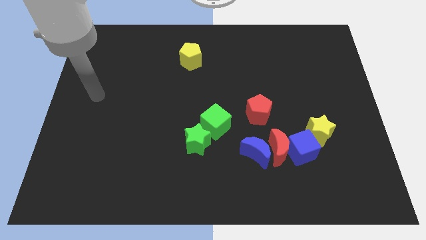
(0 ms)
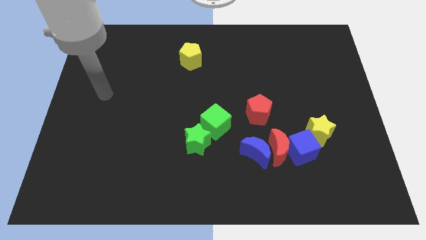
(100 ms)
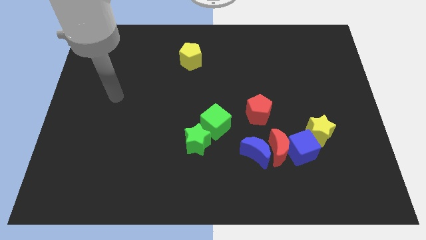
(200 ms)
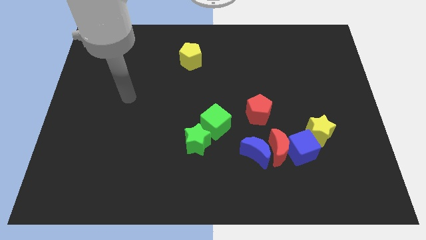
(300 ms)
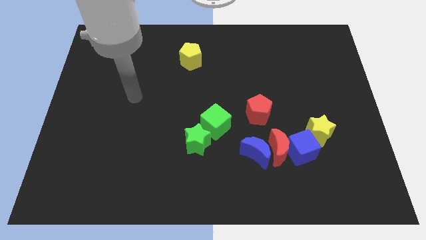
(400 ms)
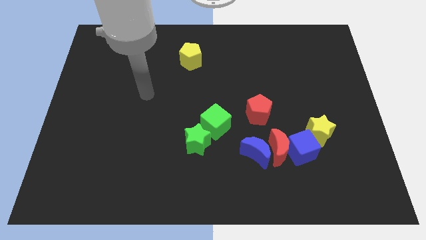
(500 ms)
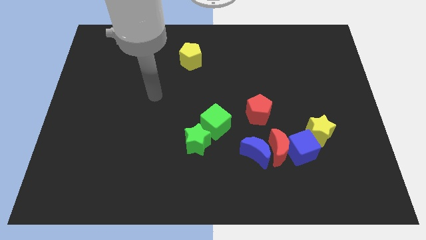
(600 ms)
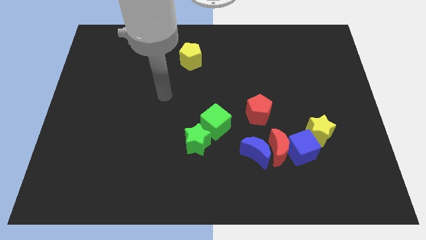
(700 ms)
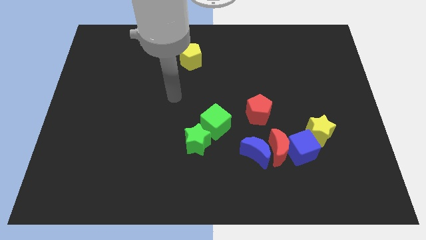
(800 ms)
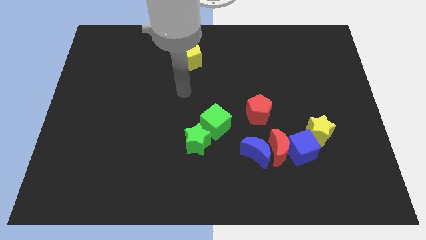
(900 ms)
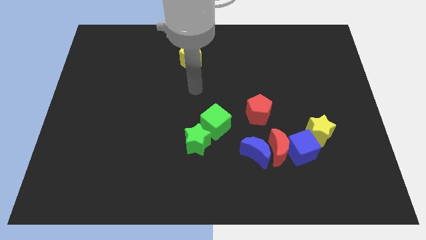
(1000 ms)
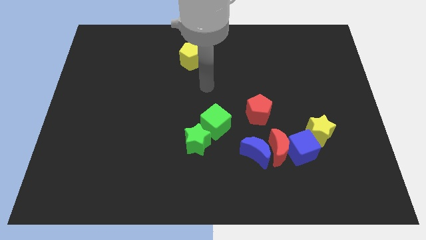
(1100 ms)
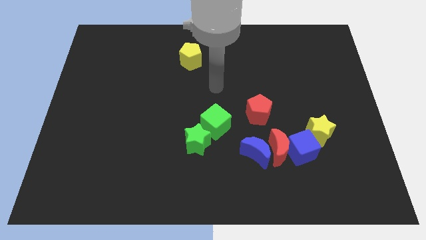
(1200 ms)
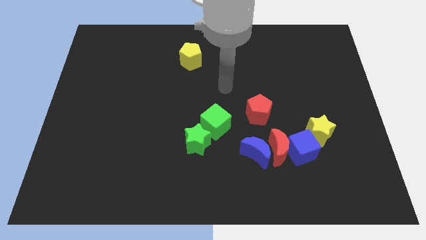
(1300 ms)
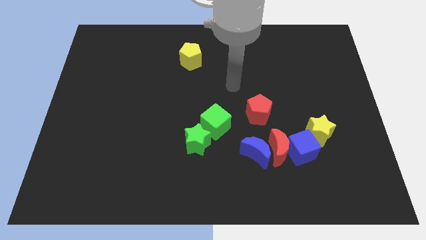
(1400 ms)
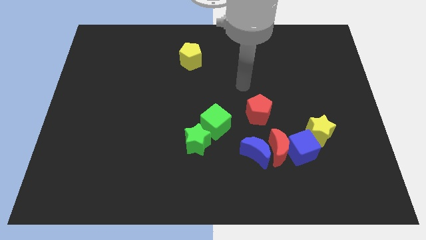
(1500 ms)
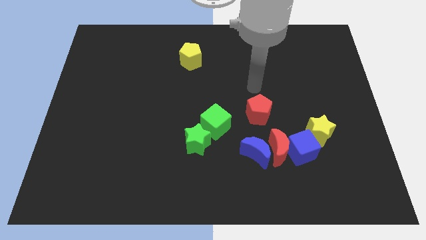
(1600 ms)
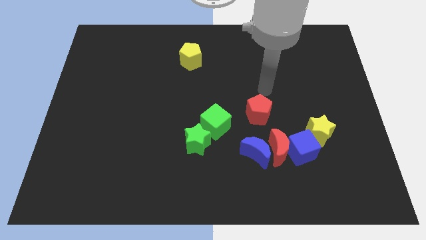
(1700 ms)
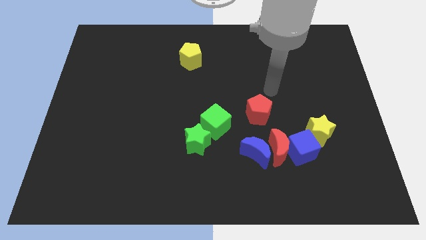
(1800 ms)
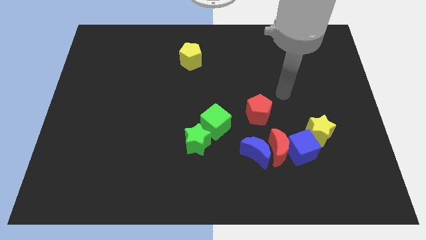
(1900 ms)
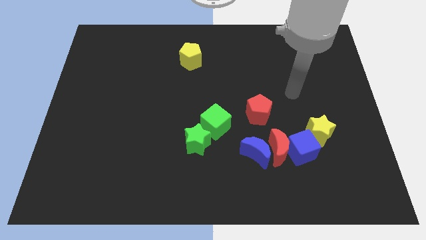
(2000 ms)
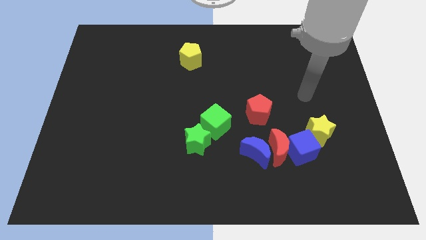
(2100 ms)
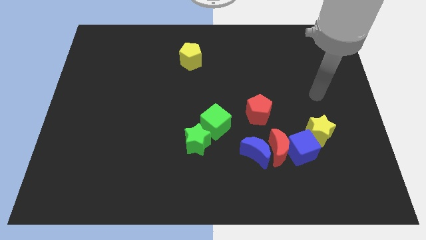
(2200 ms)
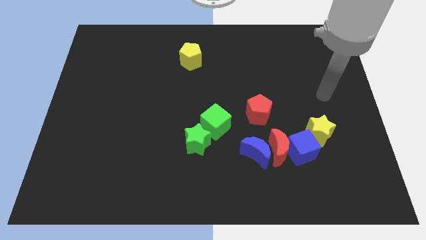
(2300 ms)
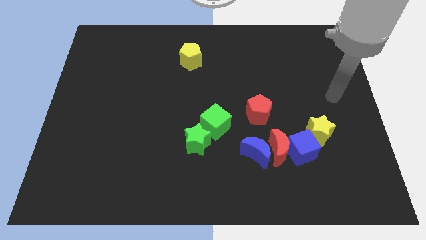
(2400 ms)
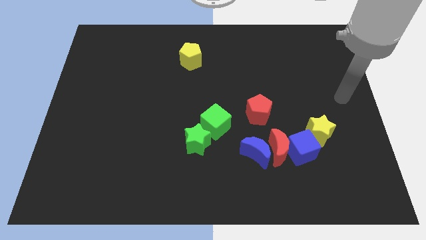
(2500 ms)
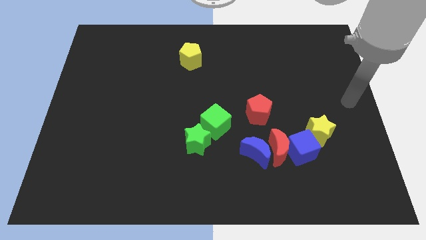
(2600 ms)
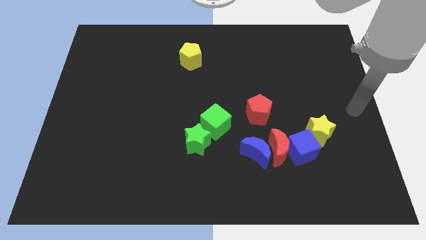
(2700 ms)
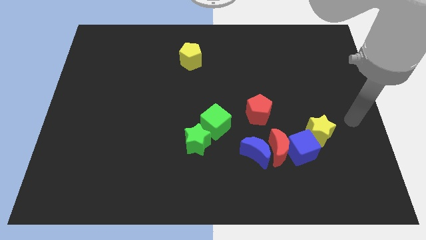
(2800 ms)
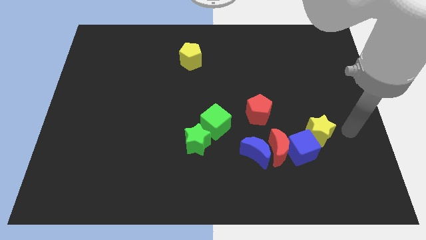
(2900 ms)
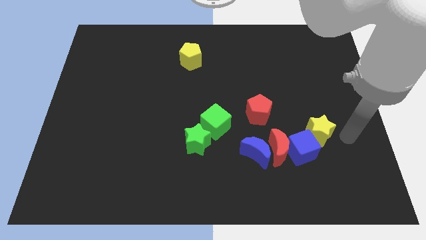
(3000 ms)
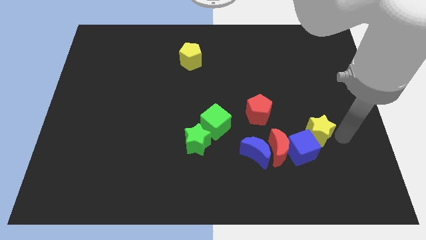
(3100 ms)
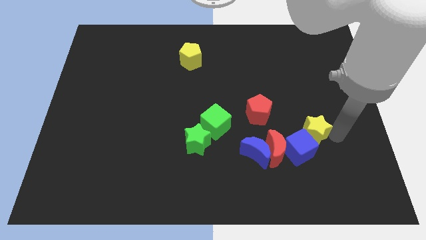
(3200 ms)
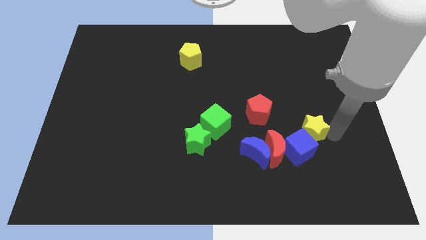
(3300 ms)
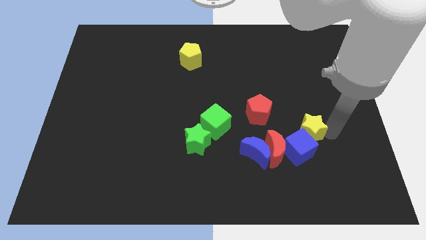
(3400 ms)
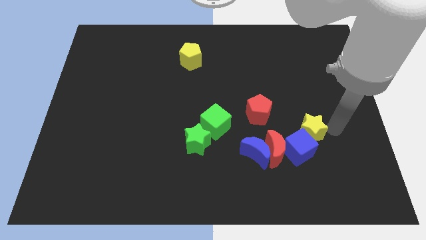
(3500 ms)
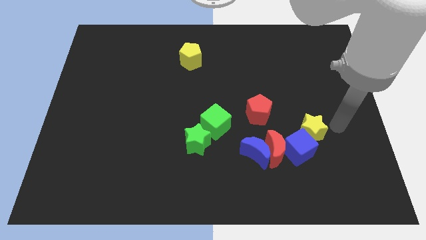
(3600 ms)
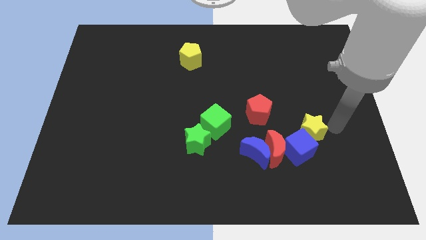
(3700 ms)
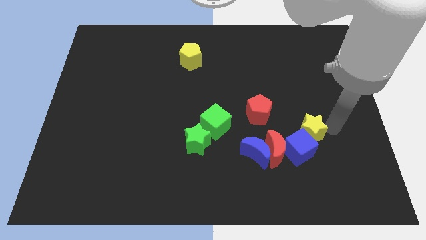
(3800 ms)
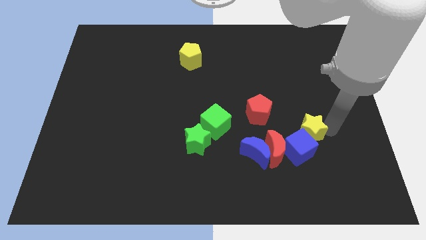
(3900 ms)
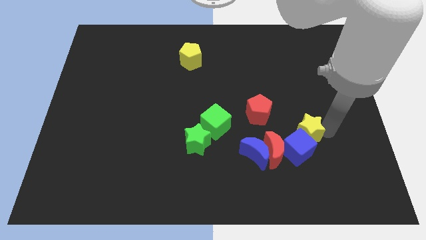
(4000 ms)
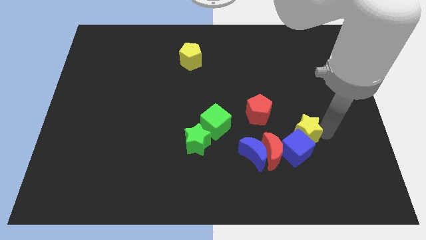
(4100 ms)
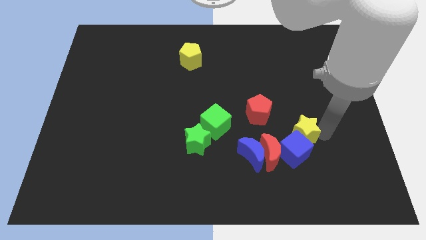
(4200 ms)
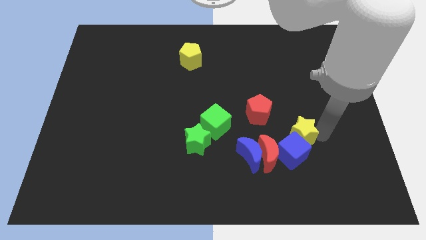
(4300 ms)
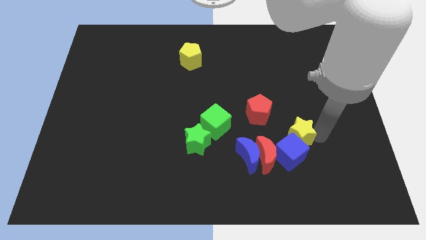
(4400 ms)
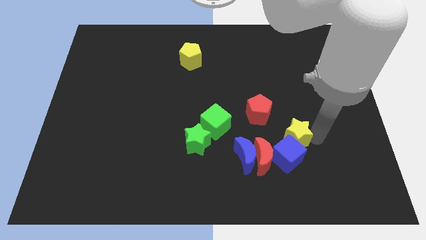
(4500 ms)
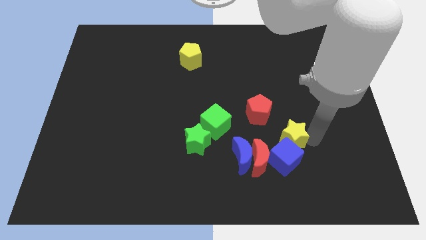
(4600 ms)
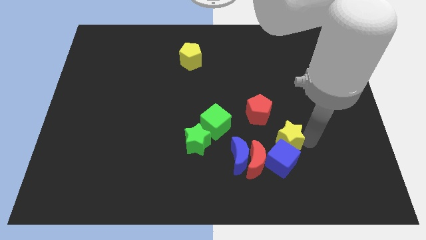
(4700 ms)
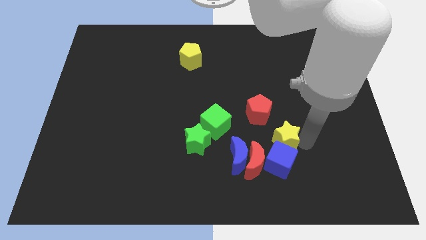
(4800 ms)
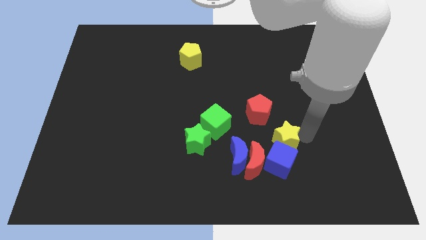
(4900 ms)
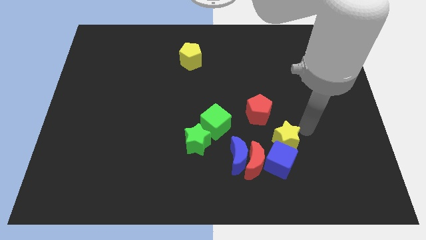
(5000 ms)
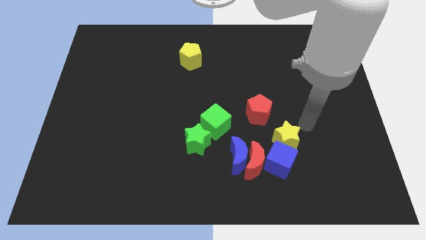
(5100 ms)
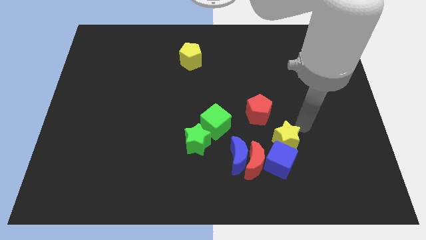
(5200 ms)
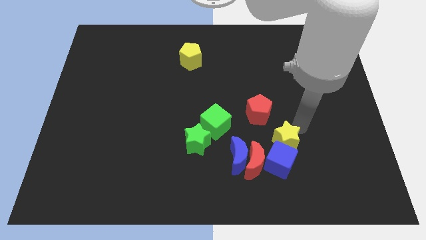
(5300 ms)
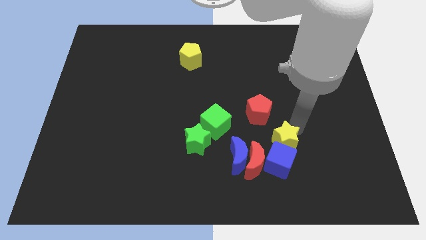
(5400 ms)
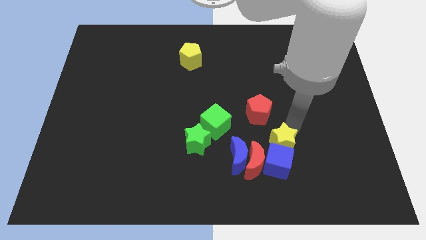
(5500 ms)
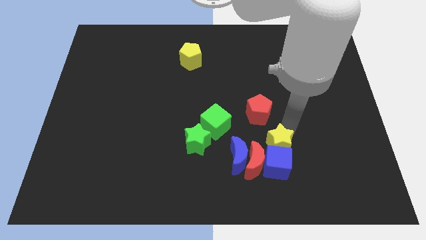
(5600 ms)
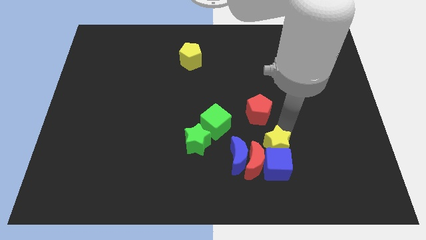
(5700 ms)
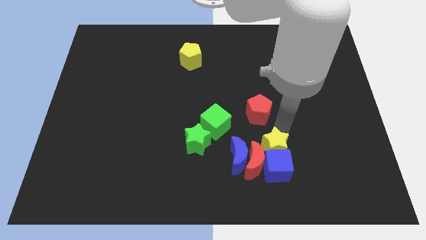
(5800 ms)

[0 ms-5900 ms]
put the yellow star to the red moon

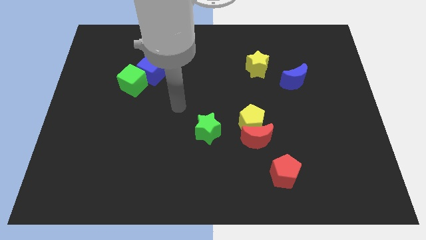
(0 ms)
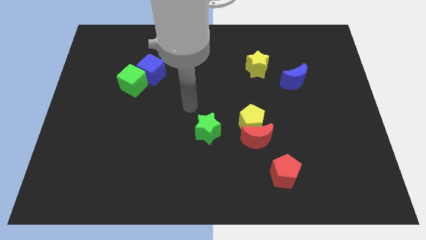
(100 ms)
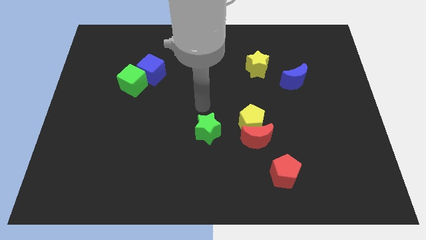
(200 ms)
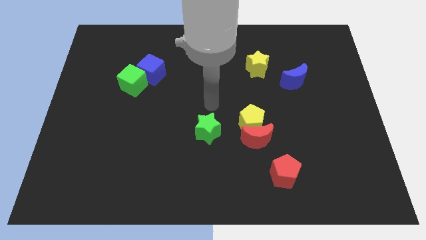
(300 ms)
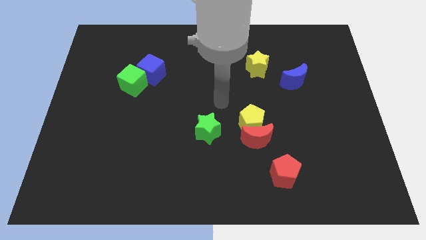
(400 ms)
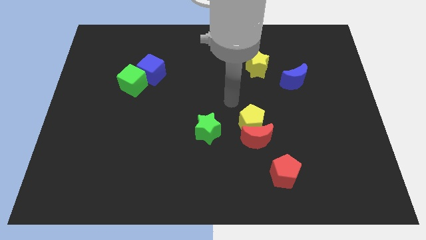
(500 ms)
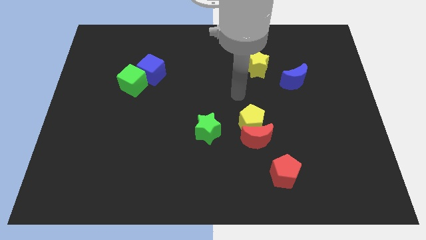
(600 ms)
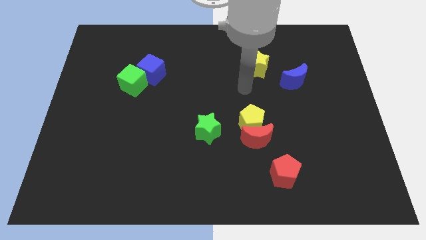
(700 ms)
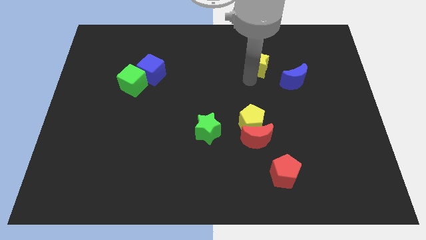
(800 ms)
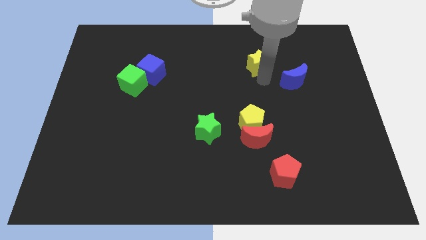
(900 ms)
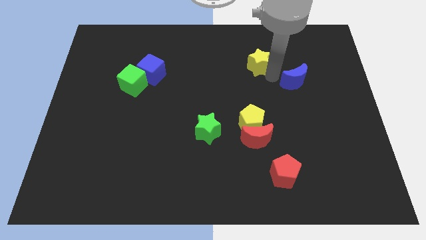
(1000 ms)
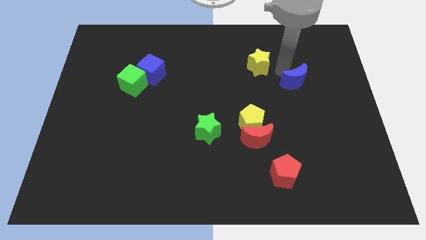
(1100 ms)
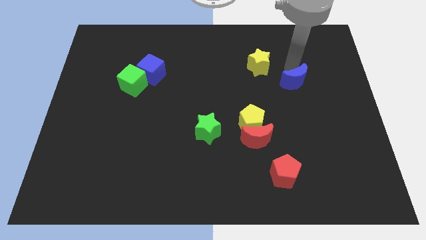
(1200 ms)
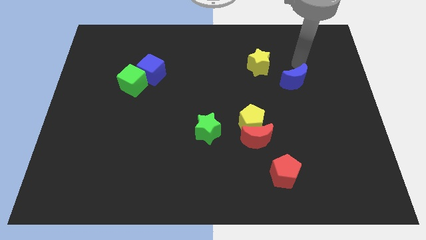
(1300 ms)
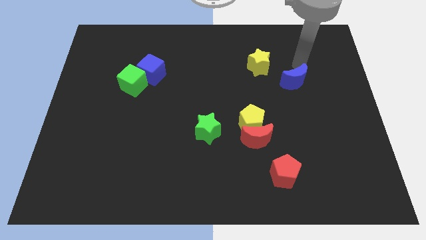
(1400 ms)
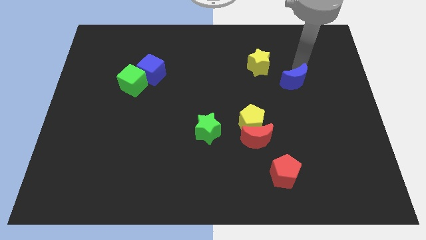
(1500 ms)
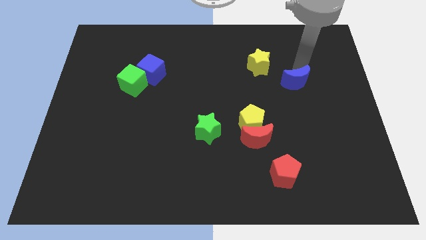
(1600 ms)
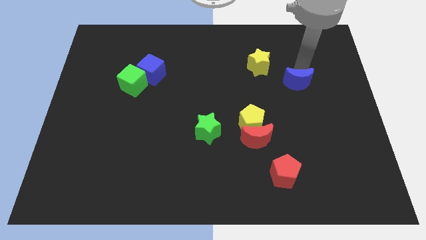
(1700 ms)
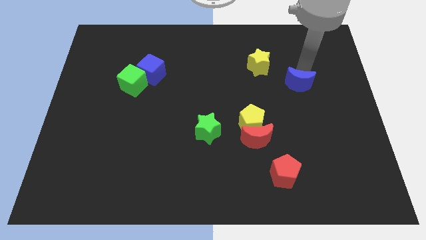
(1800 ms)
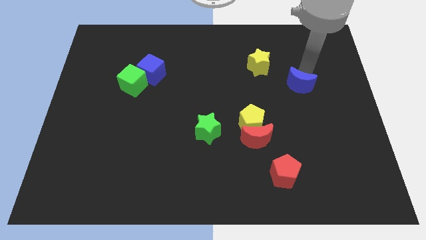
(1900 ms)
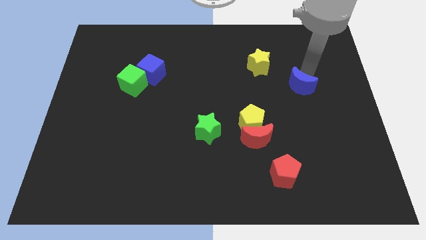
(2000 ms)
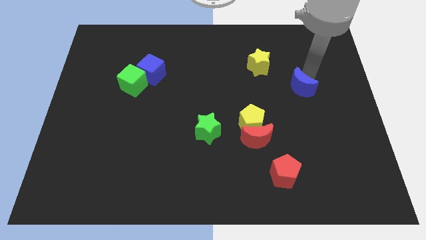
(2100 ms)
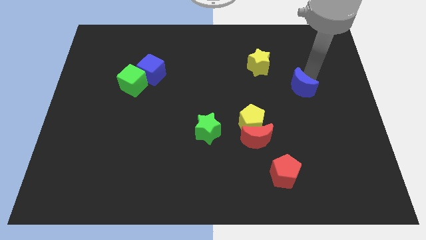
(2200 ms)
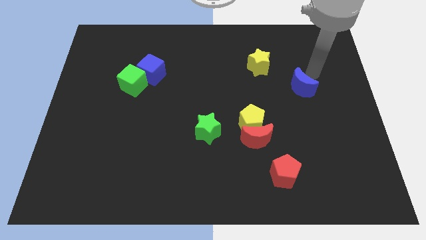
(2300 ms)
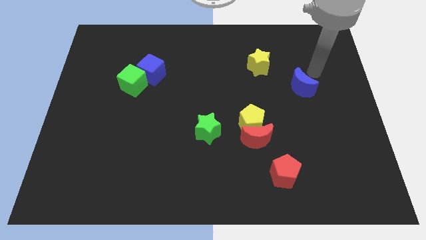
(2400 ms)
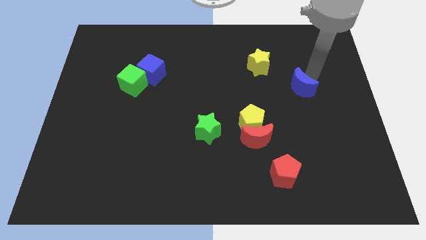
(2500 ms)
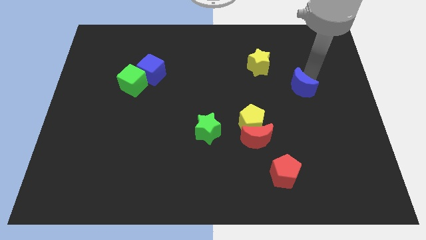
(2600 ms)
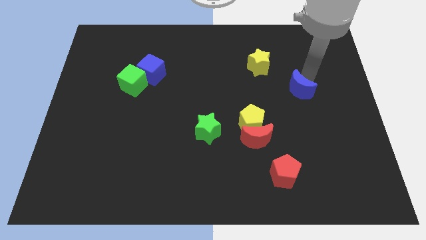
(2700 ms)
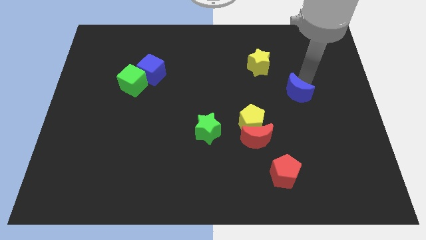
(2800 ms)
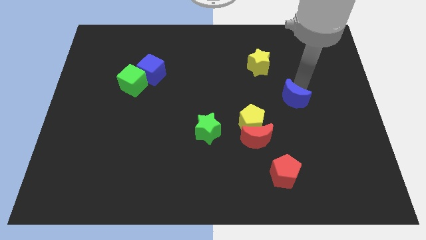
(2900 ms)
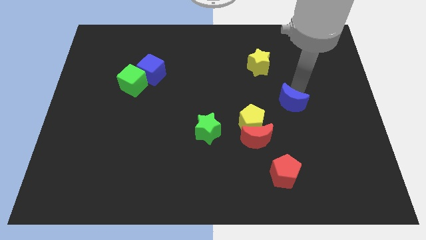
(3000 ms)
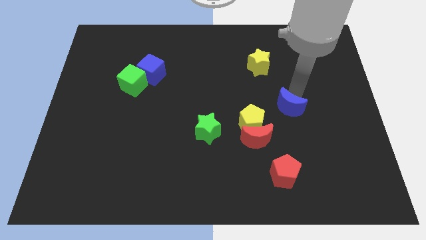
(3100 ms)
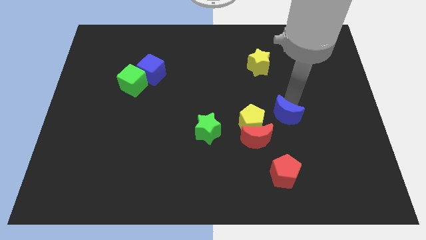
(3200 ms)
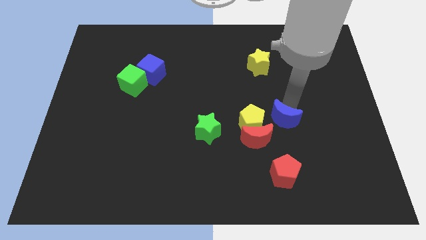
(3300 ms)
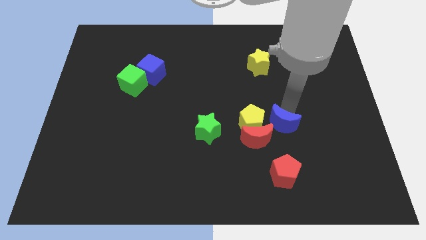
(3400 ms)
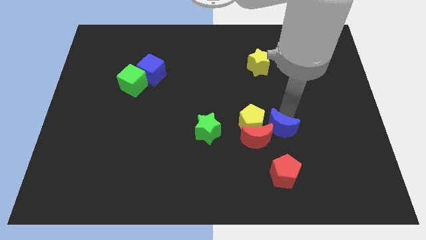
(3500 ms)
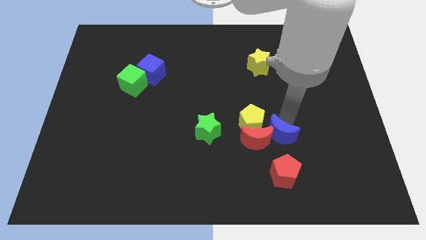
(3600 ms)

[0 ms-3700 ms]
push the blue moon to the red moon
